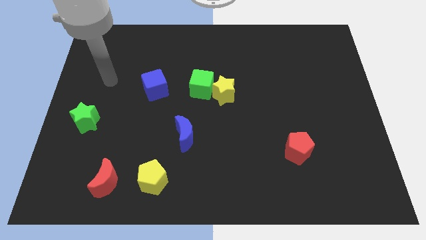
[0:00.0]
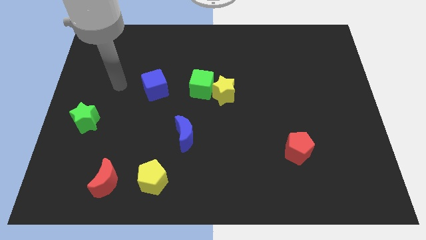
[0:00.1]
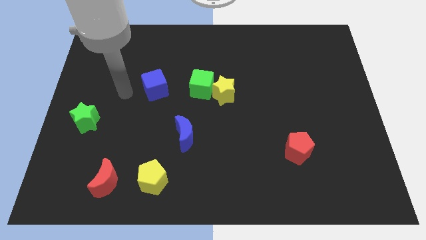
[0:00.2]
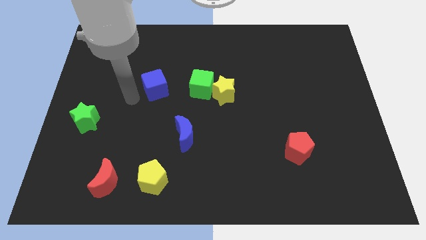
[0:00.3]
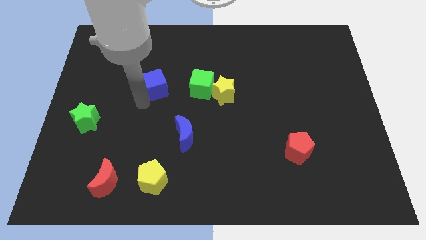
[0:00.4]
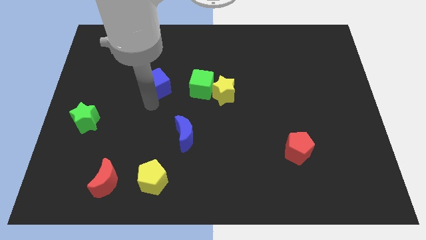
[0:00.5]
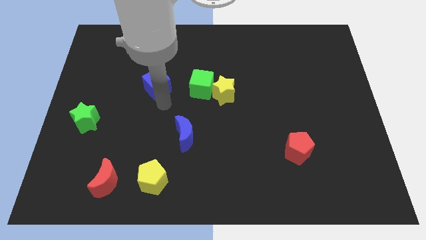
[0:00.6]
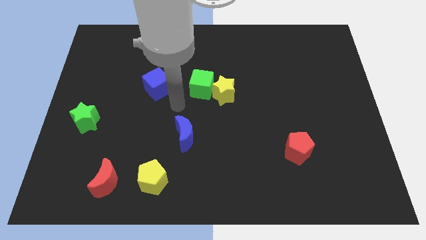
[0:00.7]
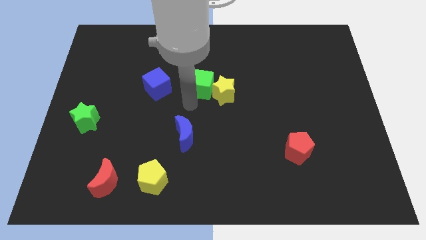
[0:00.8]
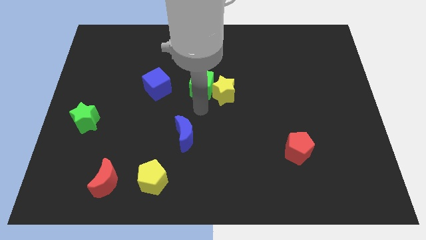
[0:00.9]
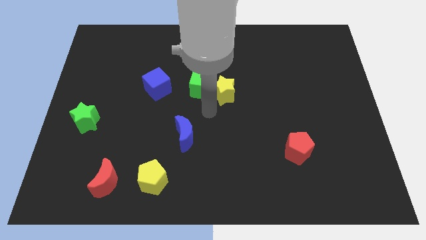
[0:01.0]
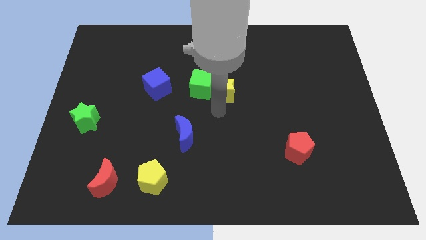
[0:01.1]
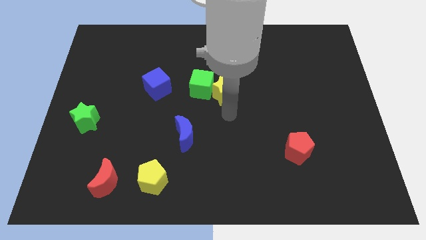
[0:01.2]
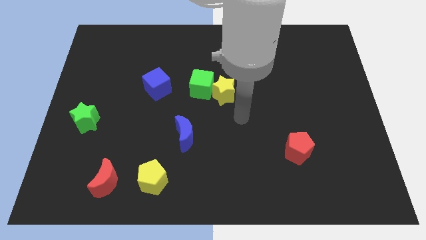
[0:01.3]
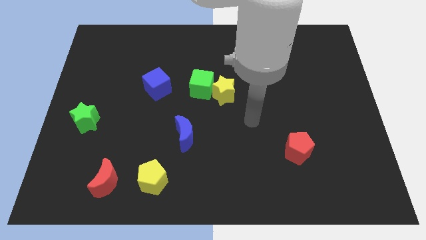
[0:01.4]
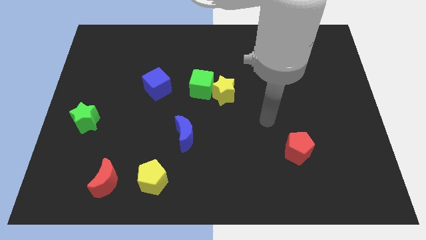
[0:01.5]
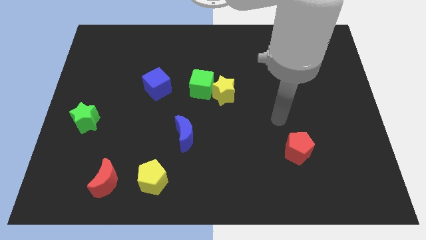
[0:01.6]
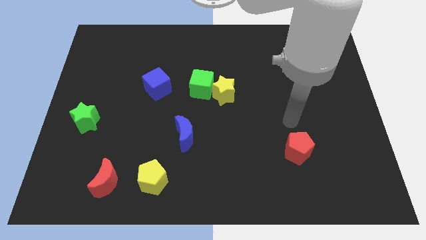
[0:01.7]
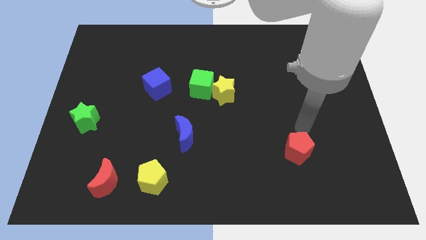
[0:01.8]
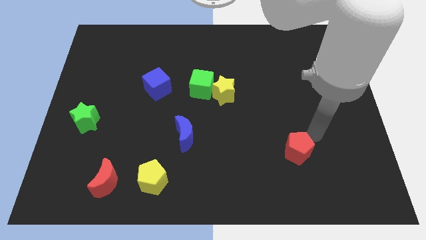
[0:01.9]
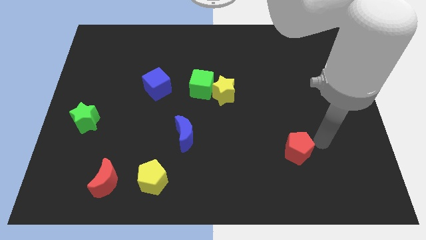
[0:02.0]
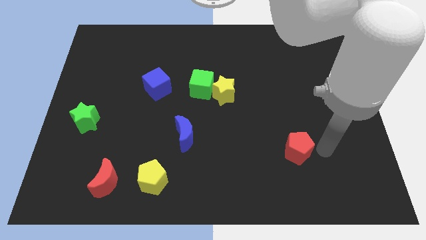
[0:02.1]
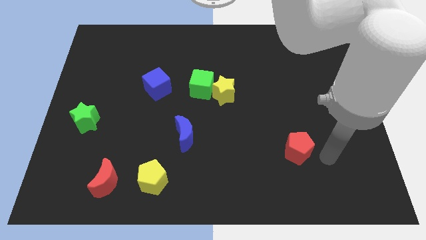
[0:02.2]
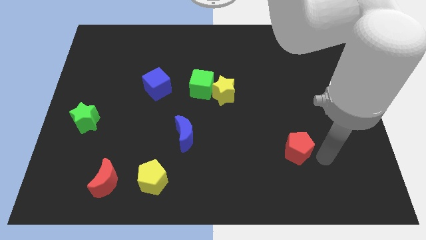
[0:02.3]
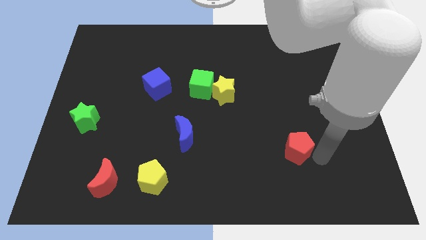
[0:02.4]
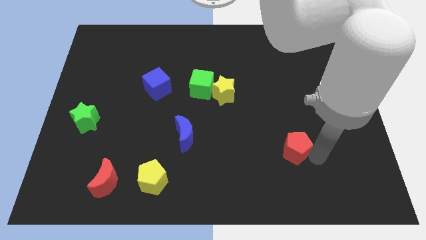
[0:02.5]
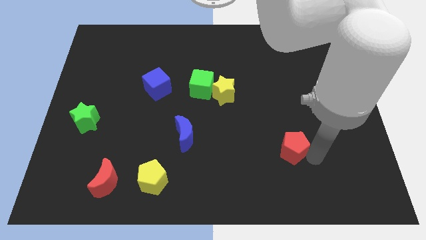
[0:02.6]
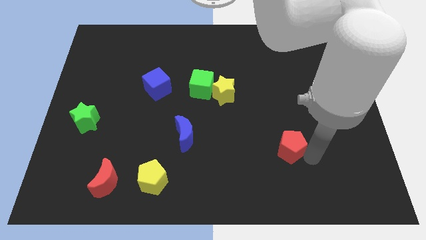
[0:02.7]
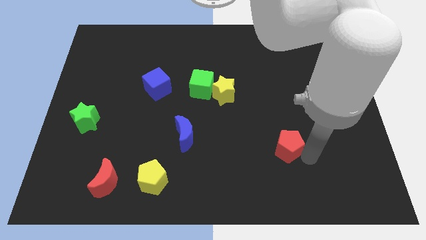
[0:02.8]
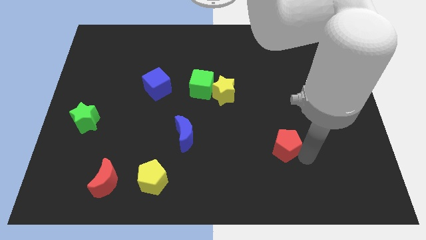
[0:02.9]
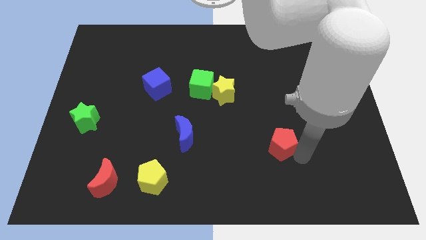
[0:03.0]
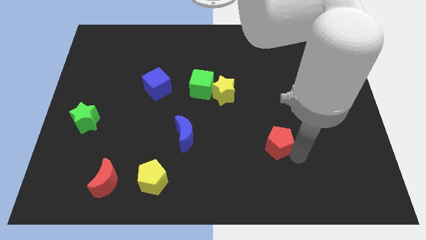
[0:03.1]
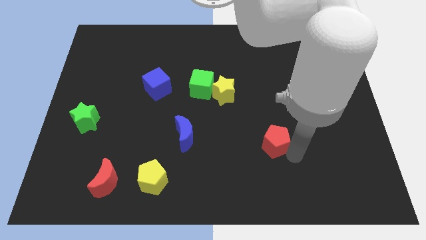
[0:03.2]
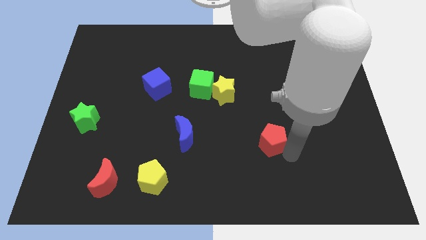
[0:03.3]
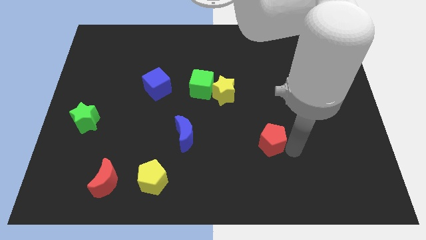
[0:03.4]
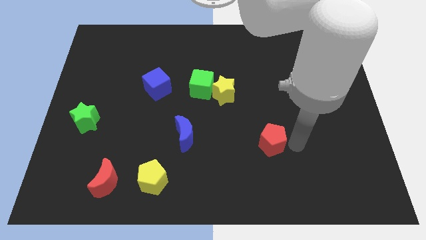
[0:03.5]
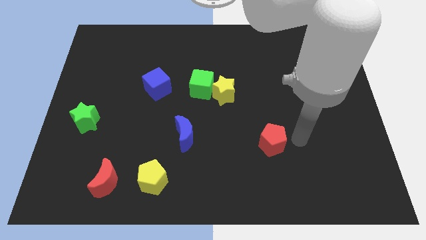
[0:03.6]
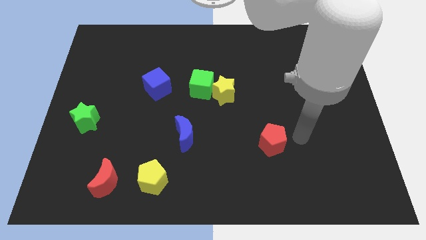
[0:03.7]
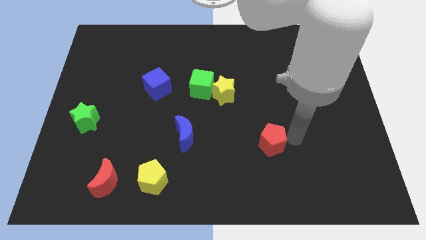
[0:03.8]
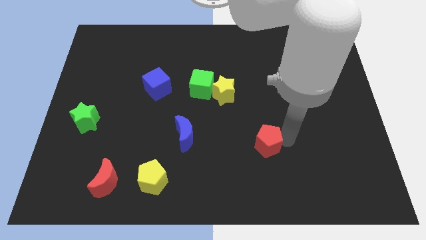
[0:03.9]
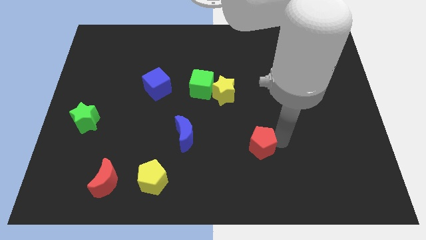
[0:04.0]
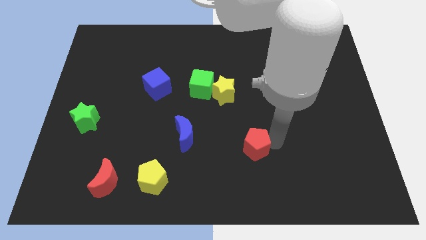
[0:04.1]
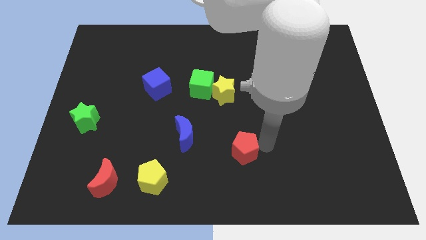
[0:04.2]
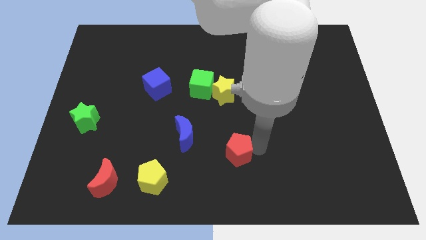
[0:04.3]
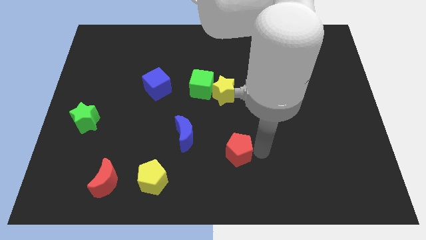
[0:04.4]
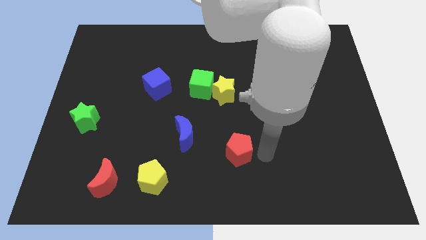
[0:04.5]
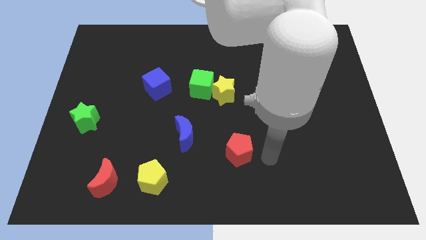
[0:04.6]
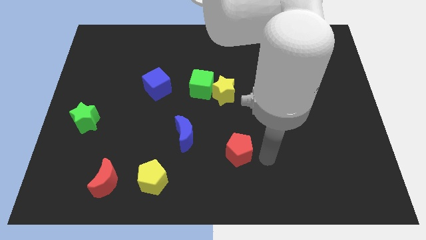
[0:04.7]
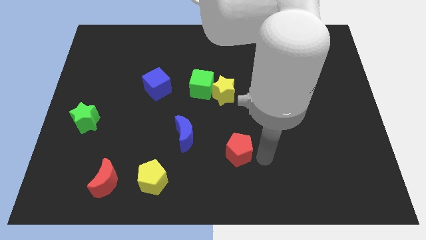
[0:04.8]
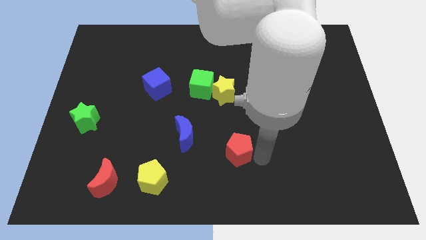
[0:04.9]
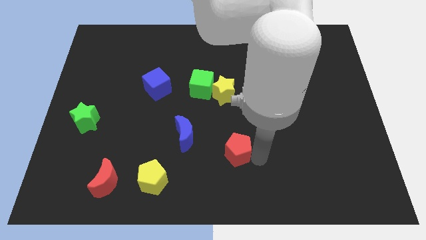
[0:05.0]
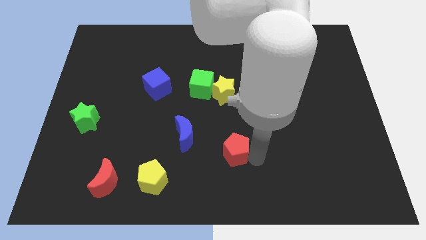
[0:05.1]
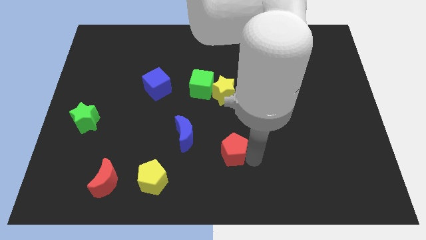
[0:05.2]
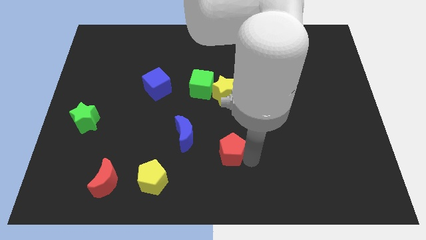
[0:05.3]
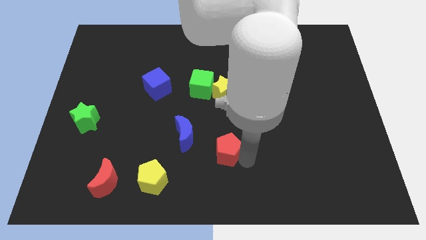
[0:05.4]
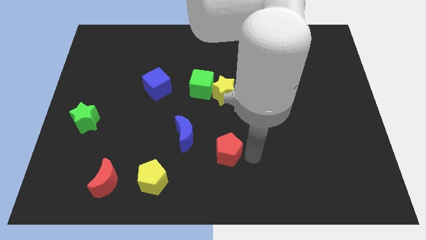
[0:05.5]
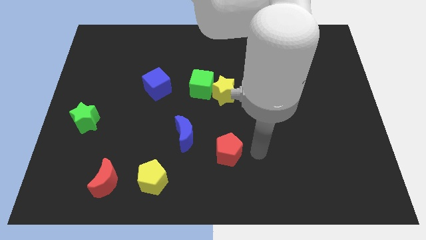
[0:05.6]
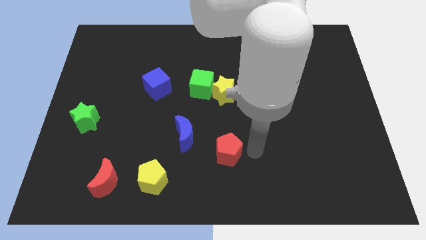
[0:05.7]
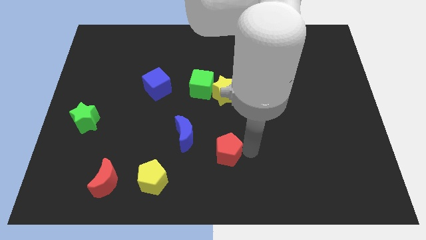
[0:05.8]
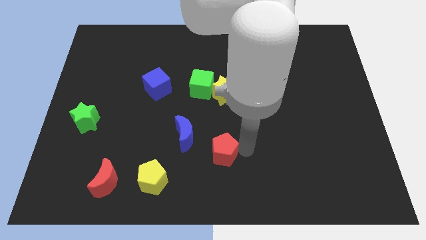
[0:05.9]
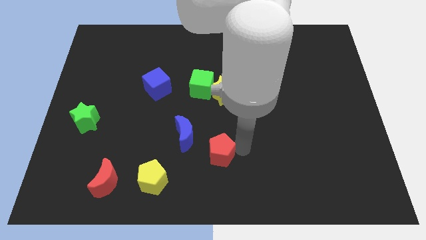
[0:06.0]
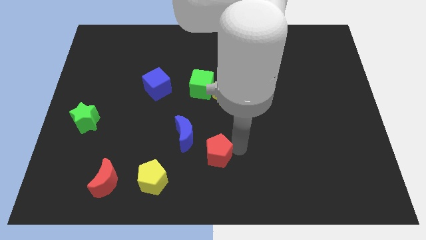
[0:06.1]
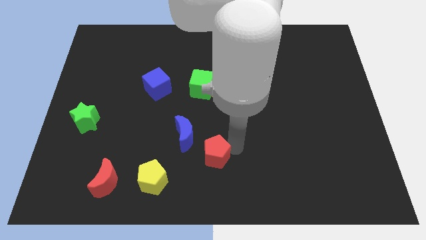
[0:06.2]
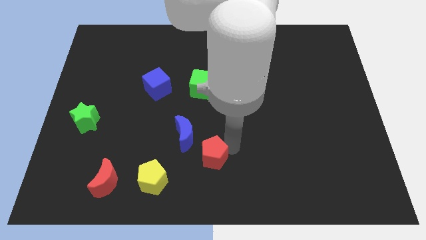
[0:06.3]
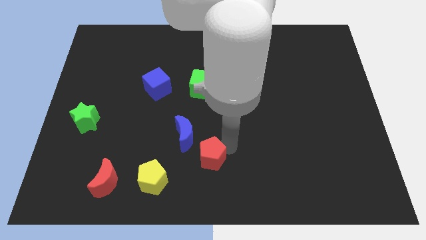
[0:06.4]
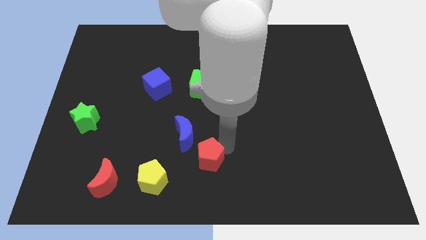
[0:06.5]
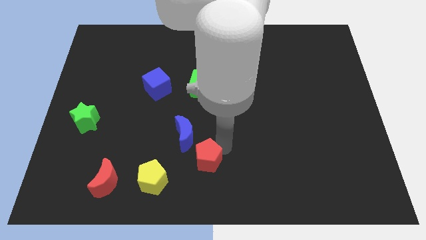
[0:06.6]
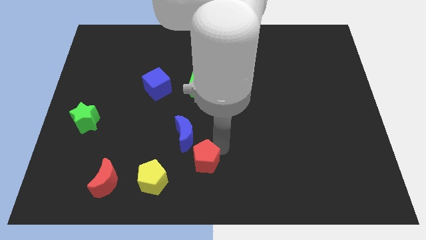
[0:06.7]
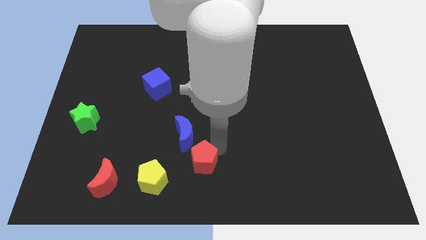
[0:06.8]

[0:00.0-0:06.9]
push the red pentagon left

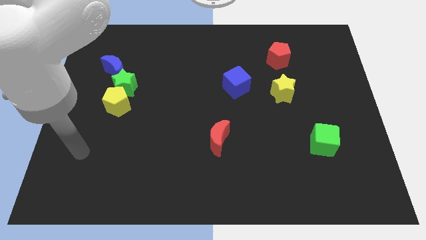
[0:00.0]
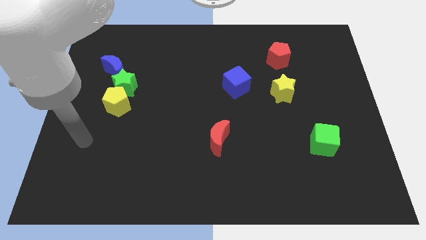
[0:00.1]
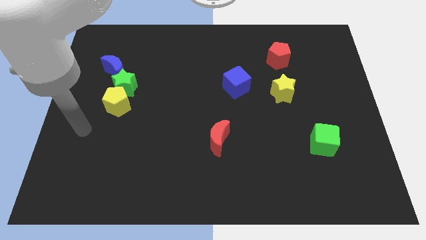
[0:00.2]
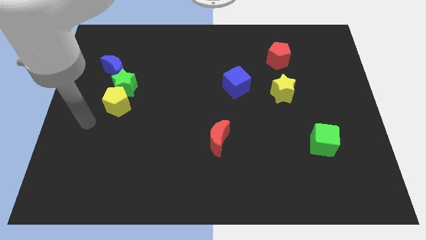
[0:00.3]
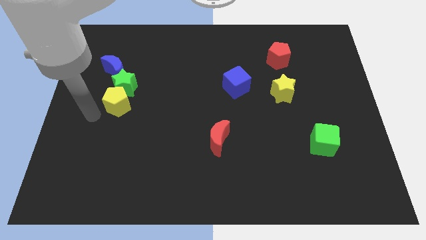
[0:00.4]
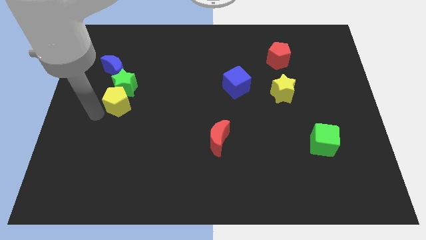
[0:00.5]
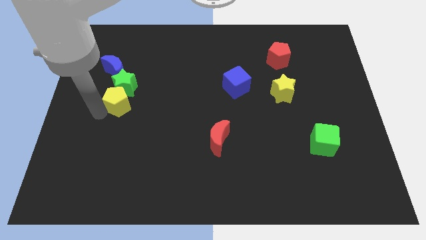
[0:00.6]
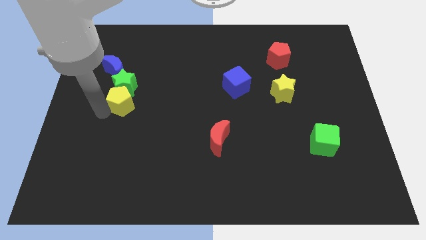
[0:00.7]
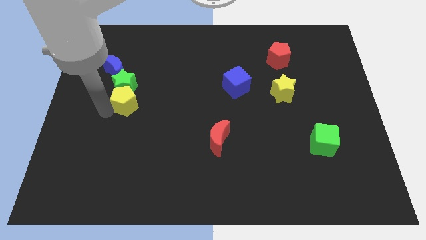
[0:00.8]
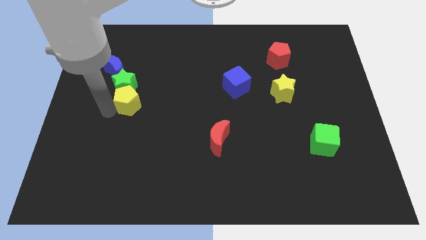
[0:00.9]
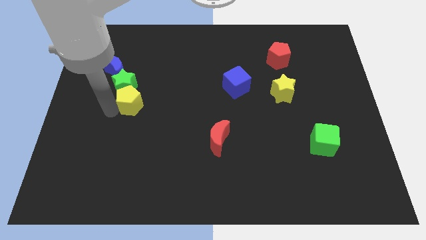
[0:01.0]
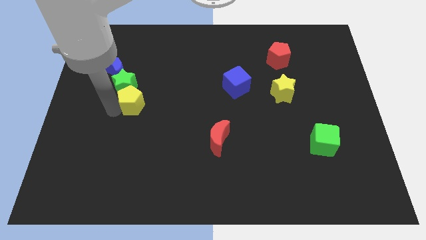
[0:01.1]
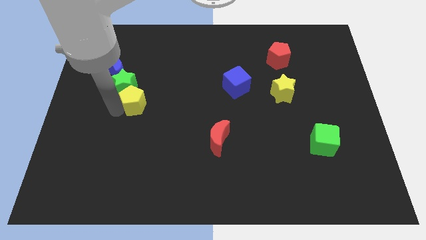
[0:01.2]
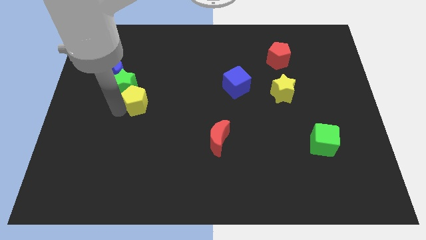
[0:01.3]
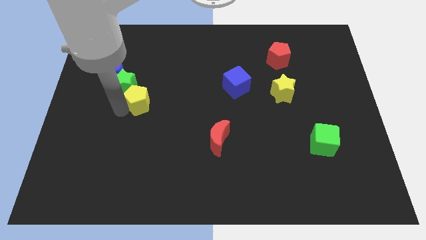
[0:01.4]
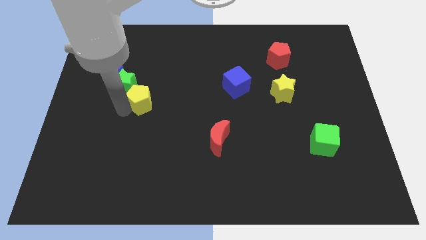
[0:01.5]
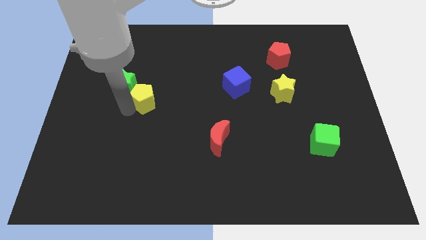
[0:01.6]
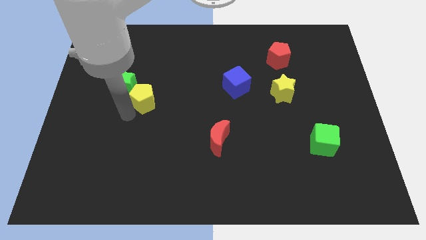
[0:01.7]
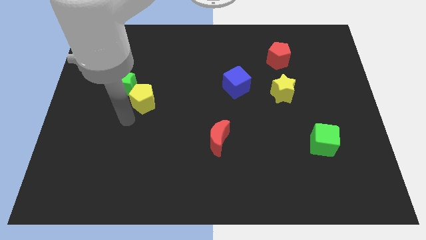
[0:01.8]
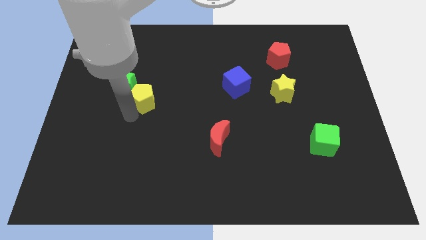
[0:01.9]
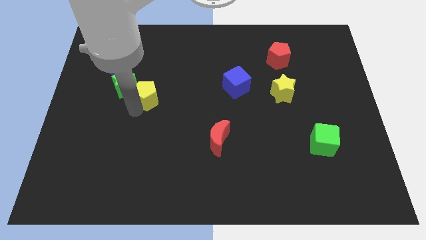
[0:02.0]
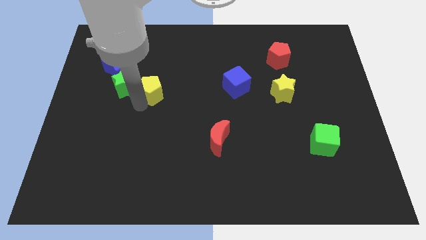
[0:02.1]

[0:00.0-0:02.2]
push the yellow pentagon upwards and to the right somewhat
